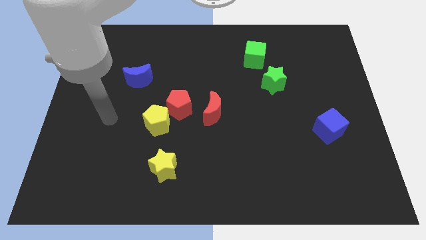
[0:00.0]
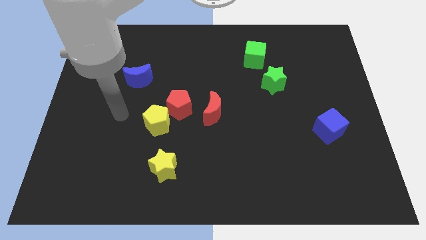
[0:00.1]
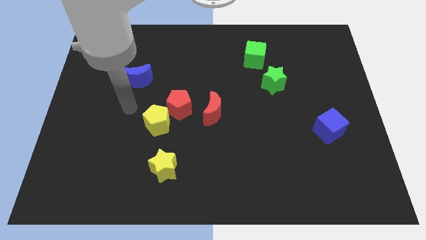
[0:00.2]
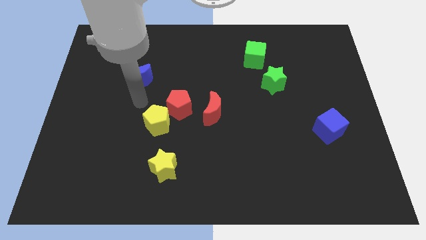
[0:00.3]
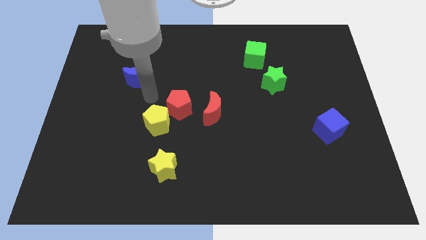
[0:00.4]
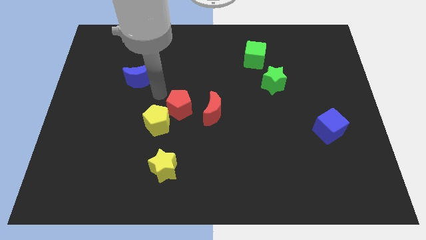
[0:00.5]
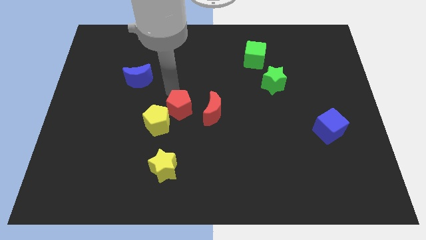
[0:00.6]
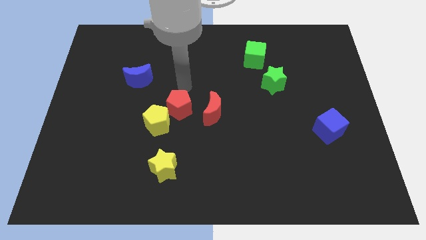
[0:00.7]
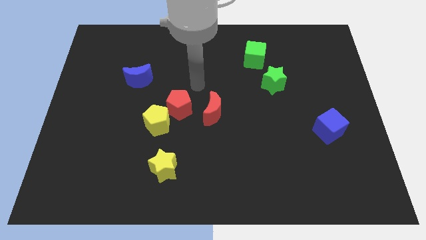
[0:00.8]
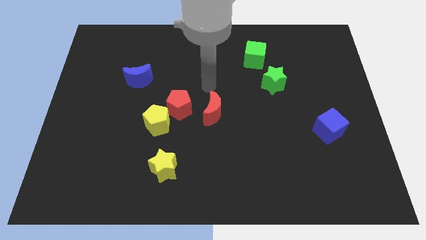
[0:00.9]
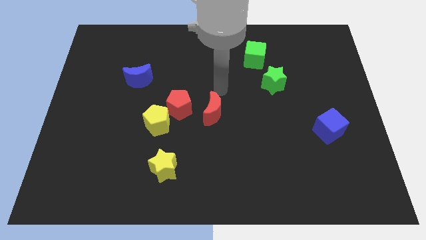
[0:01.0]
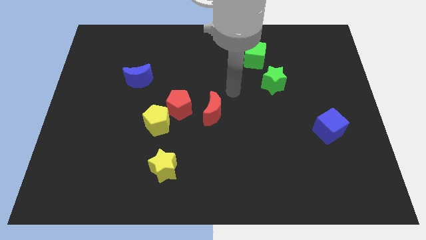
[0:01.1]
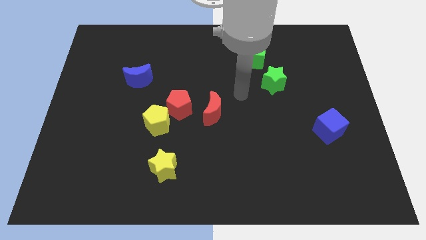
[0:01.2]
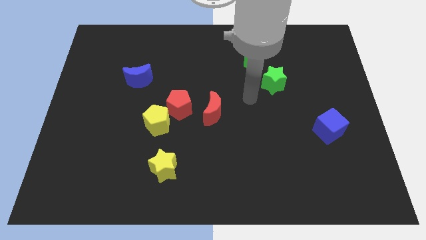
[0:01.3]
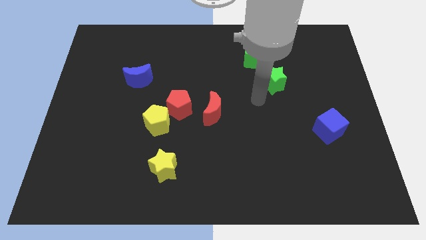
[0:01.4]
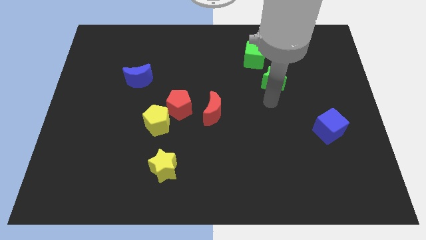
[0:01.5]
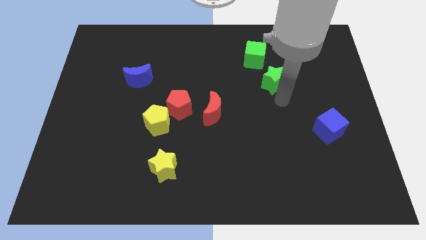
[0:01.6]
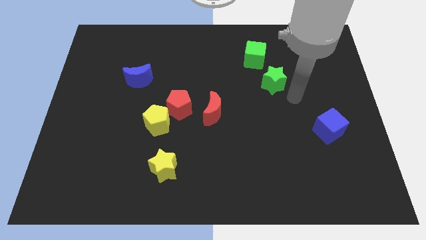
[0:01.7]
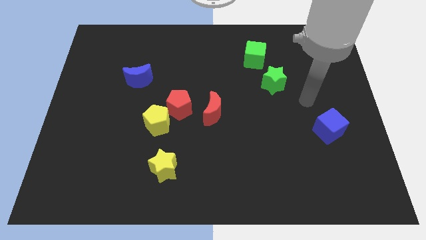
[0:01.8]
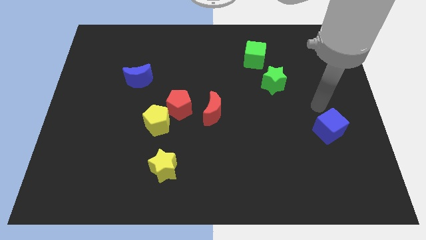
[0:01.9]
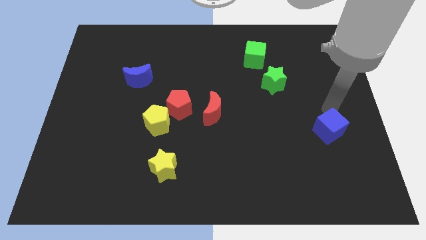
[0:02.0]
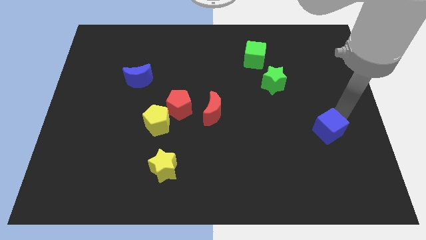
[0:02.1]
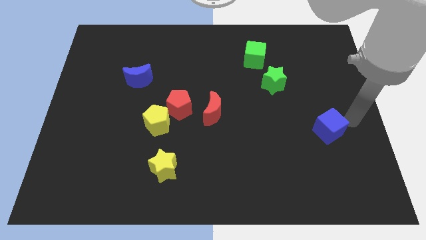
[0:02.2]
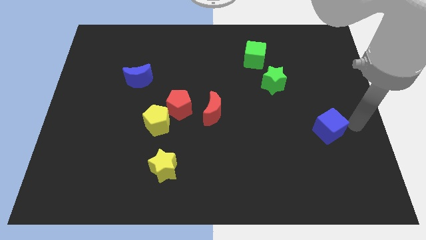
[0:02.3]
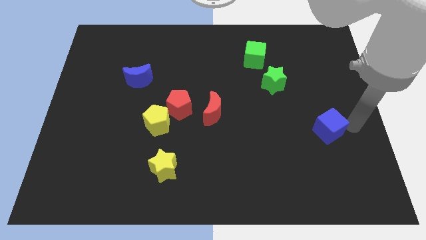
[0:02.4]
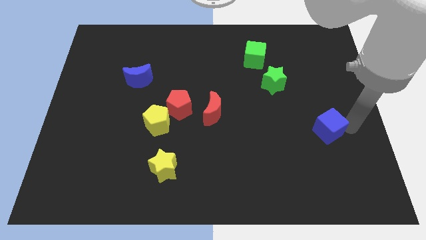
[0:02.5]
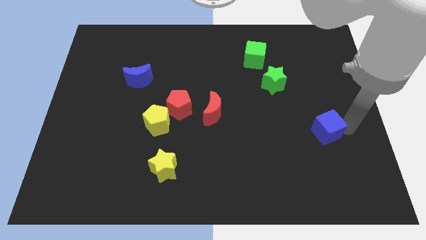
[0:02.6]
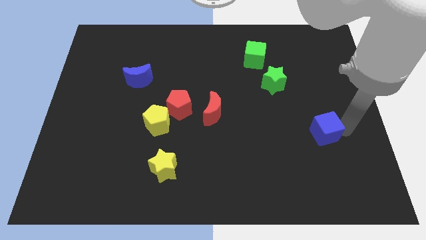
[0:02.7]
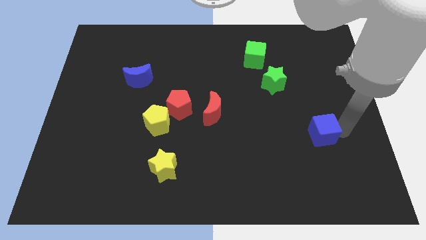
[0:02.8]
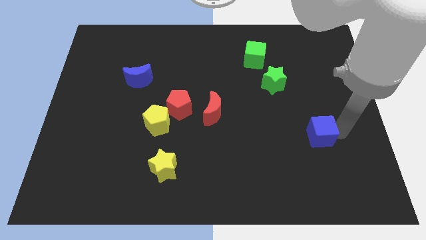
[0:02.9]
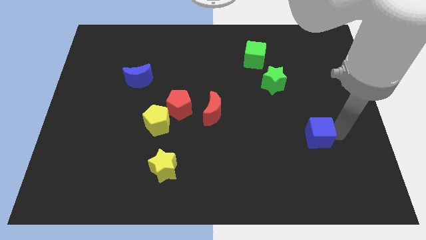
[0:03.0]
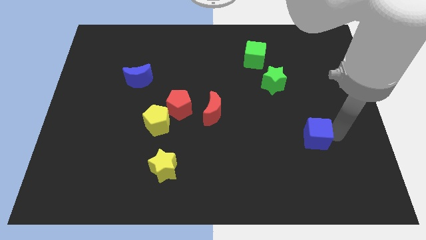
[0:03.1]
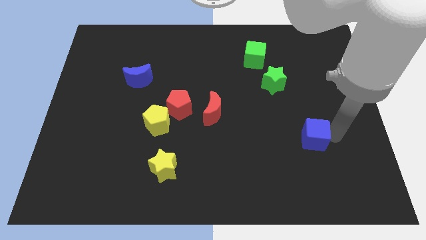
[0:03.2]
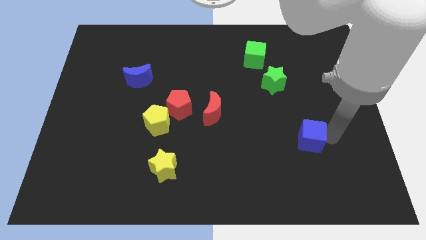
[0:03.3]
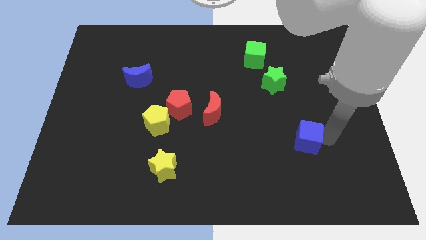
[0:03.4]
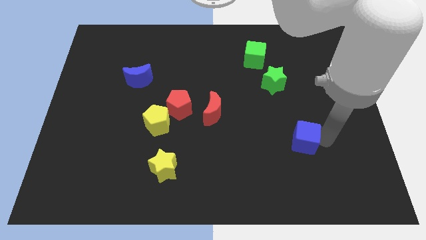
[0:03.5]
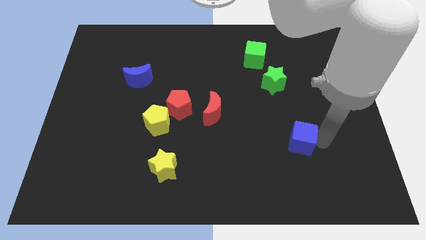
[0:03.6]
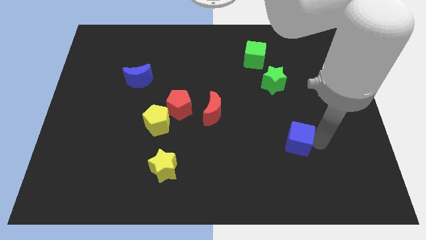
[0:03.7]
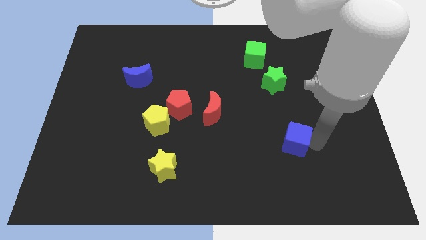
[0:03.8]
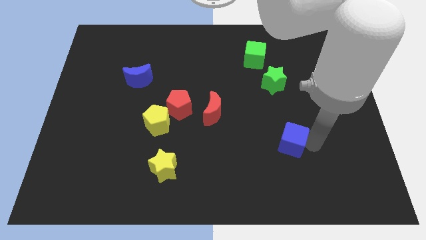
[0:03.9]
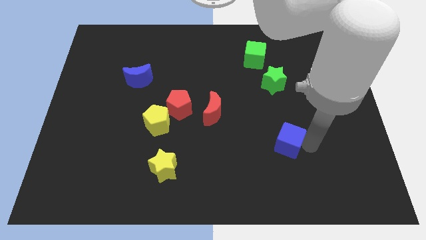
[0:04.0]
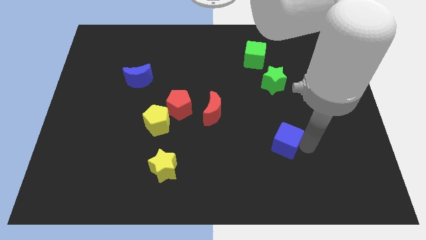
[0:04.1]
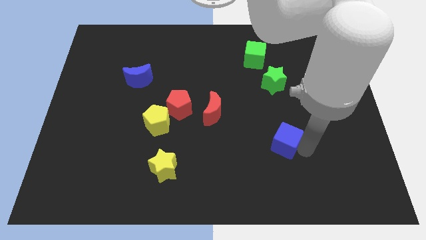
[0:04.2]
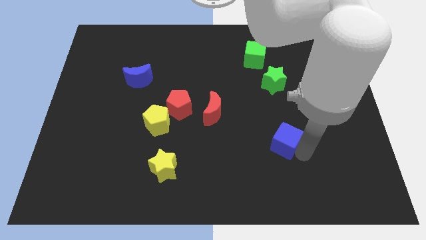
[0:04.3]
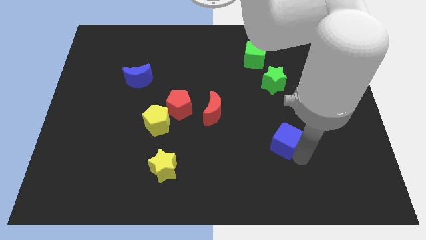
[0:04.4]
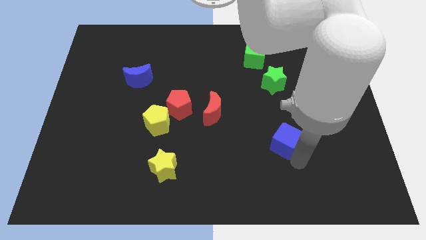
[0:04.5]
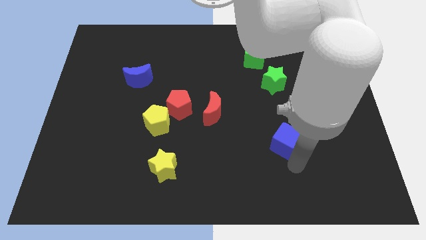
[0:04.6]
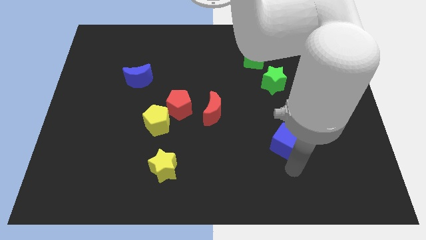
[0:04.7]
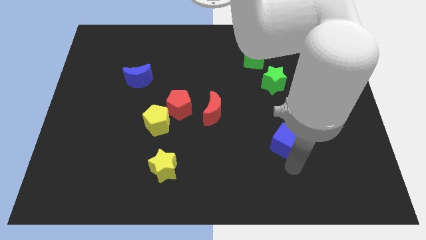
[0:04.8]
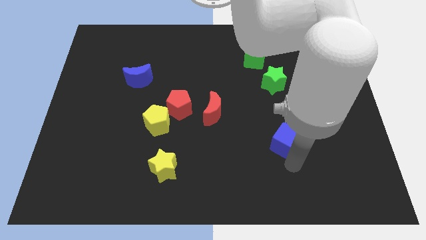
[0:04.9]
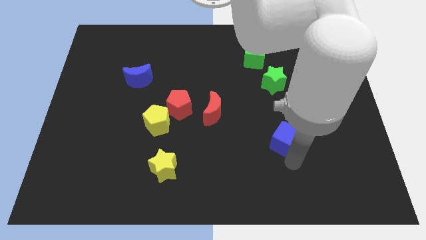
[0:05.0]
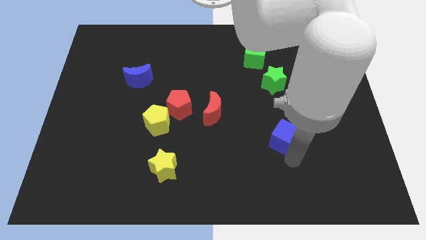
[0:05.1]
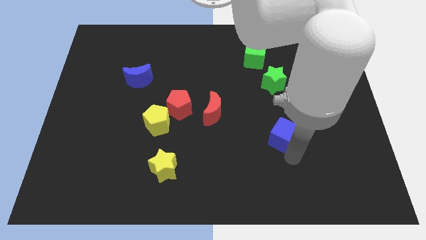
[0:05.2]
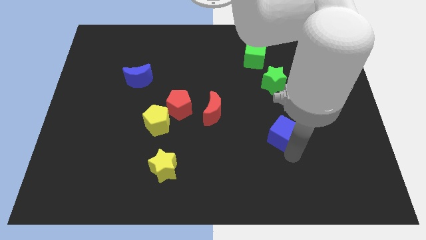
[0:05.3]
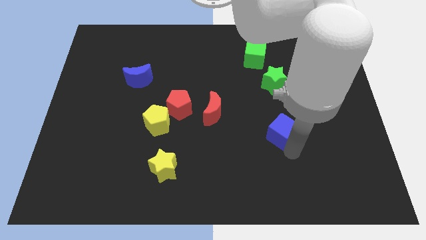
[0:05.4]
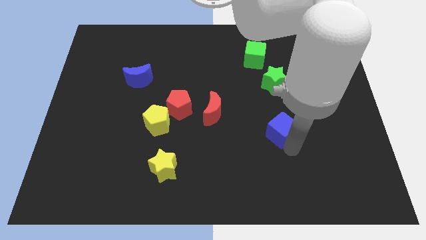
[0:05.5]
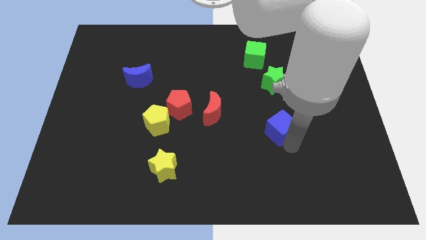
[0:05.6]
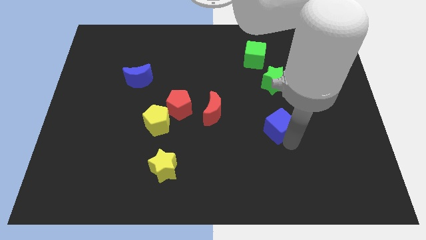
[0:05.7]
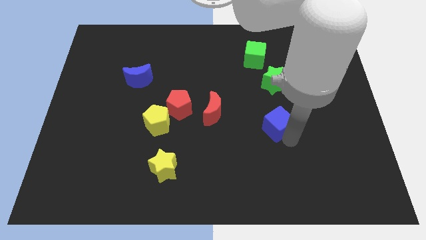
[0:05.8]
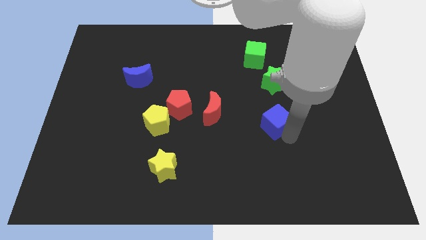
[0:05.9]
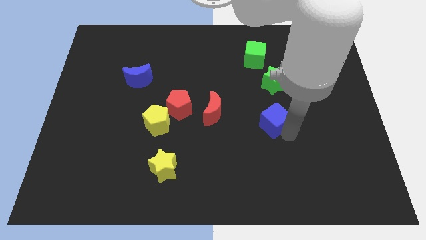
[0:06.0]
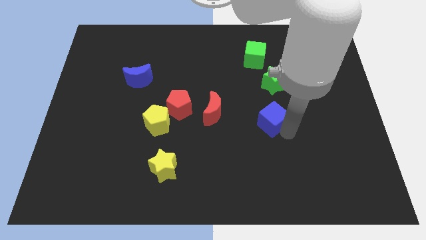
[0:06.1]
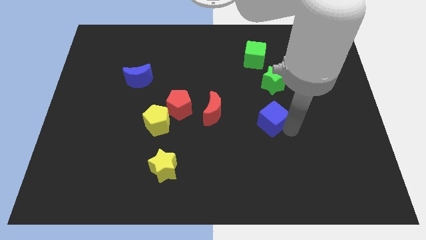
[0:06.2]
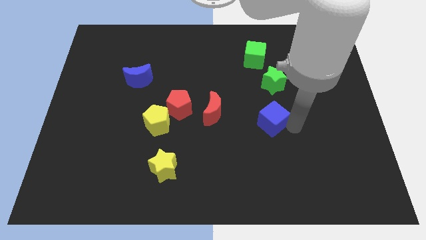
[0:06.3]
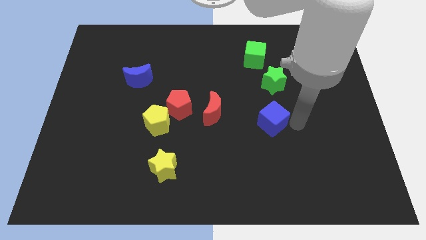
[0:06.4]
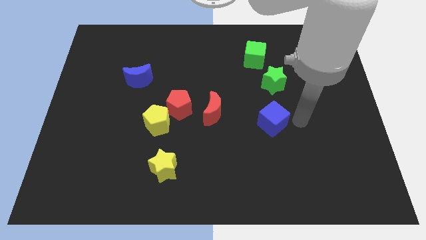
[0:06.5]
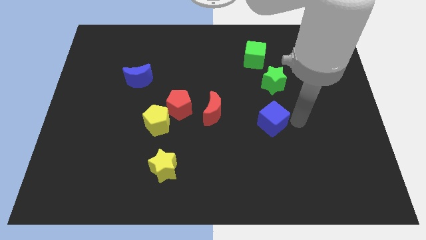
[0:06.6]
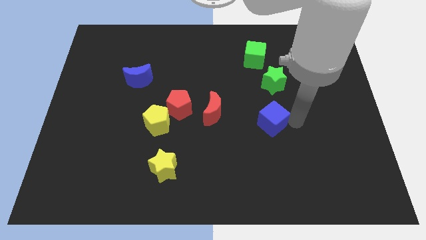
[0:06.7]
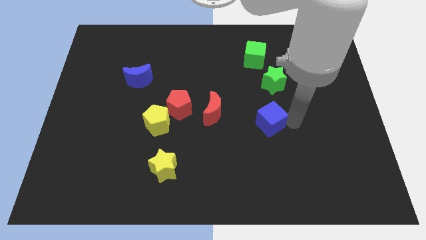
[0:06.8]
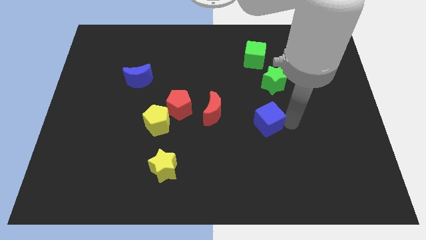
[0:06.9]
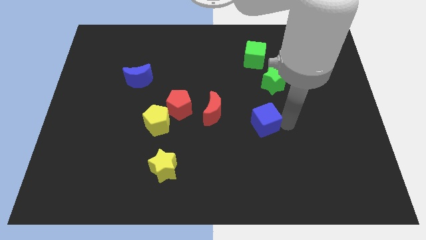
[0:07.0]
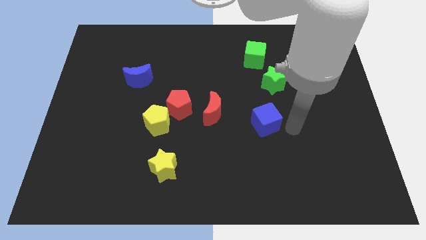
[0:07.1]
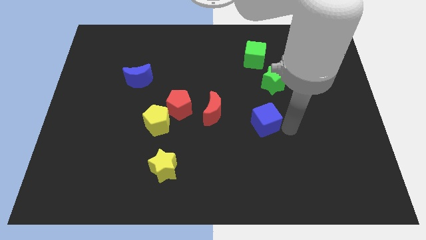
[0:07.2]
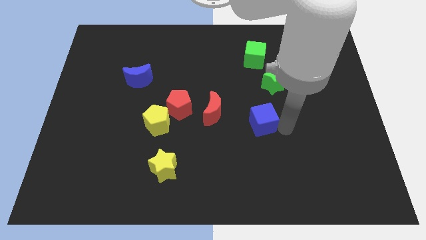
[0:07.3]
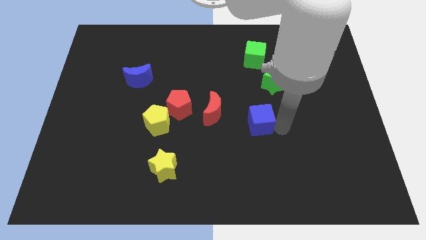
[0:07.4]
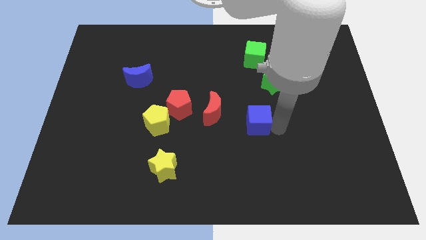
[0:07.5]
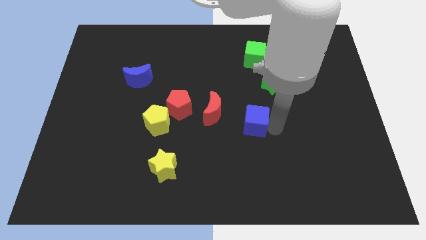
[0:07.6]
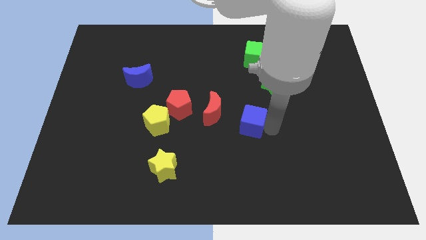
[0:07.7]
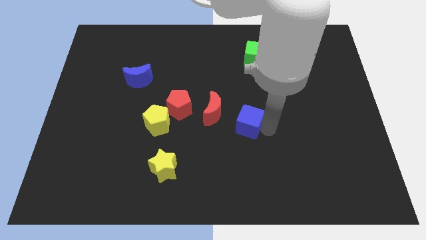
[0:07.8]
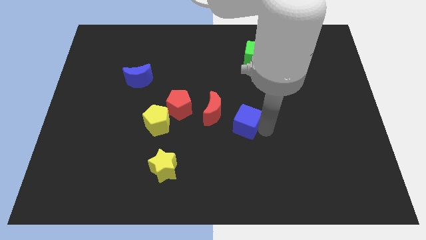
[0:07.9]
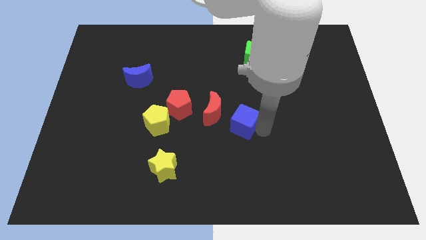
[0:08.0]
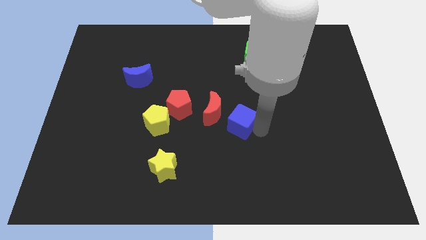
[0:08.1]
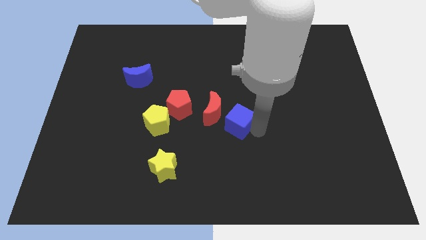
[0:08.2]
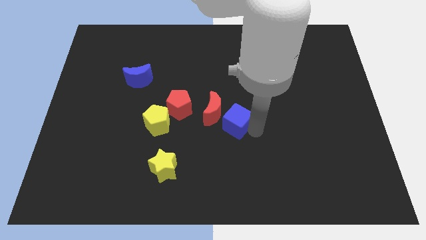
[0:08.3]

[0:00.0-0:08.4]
move the blue cube to the red moon

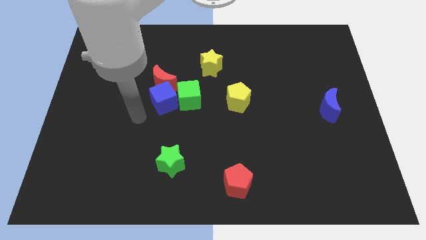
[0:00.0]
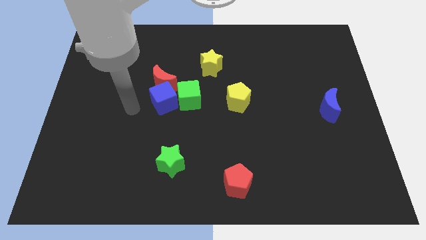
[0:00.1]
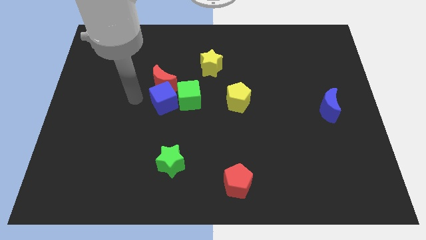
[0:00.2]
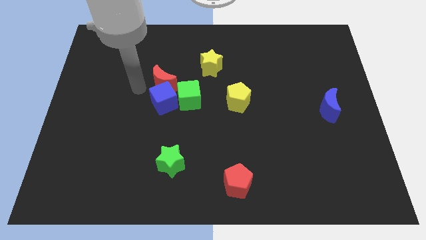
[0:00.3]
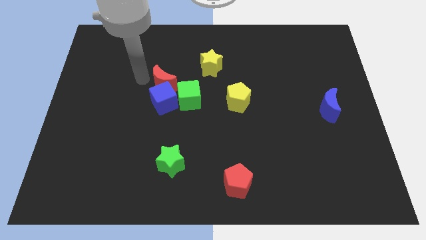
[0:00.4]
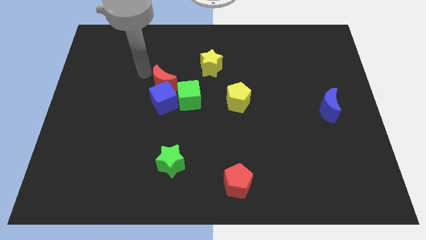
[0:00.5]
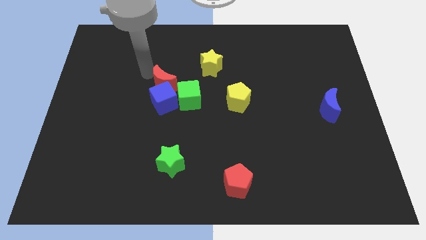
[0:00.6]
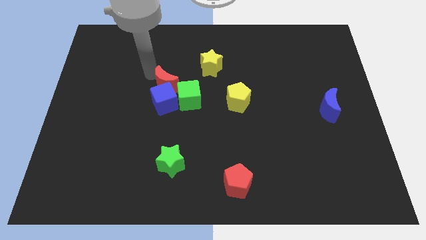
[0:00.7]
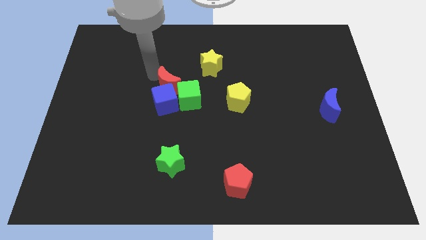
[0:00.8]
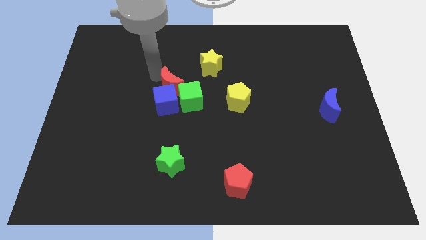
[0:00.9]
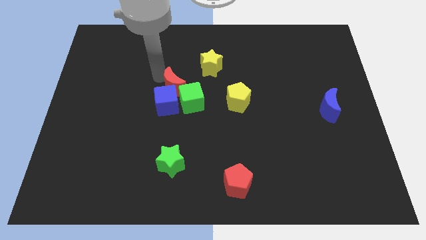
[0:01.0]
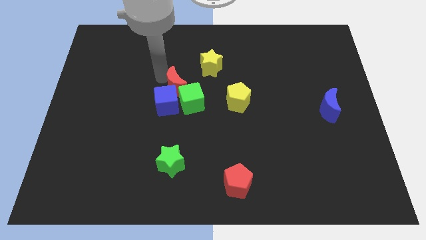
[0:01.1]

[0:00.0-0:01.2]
move the red moon next to the green cube
